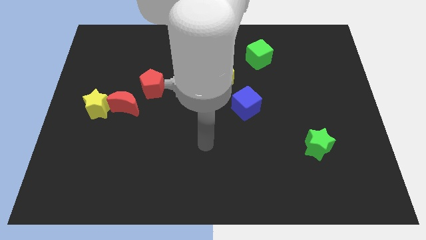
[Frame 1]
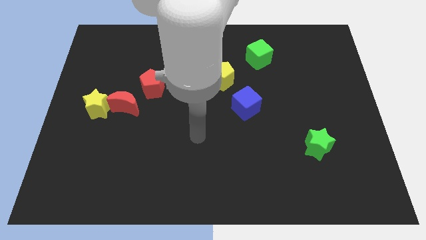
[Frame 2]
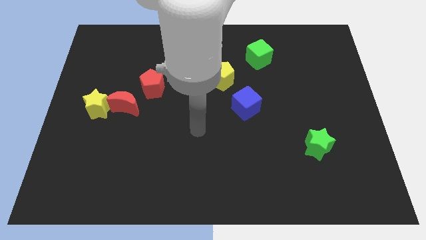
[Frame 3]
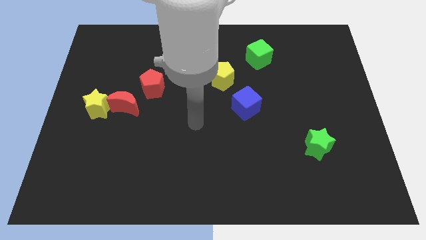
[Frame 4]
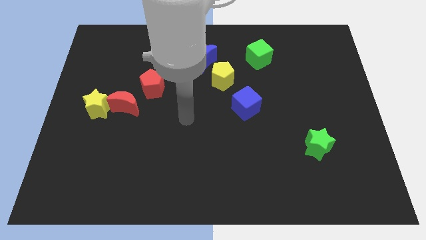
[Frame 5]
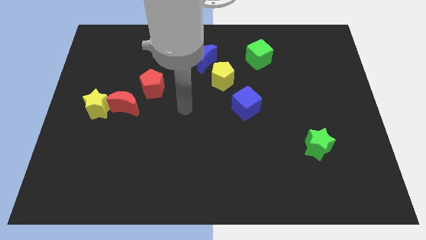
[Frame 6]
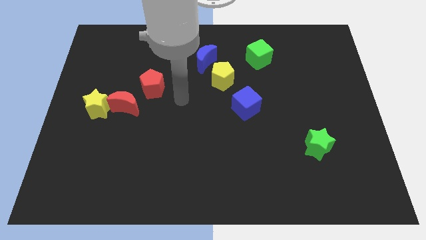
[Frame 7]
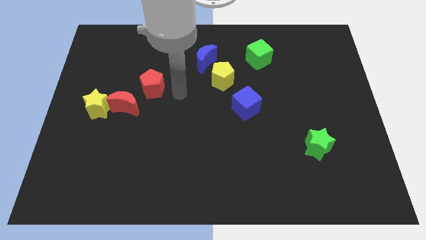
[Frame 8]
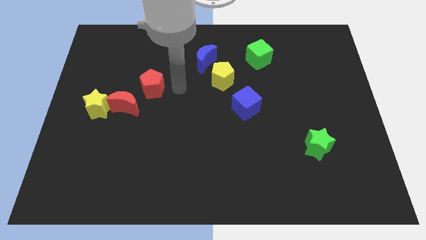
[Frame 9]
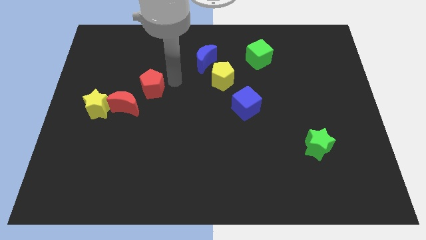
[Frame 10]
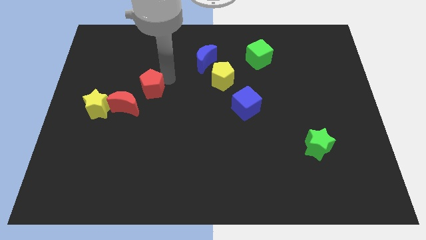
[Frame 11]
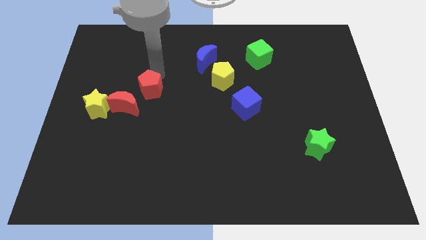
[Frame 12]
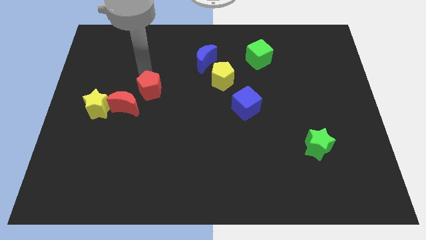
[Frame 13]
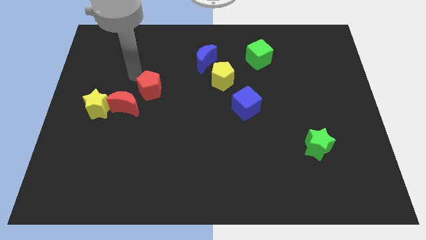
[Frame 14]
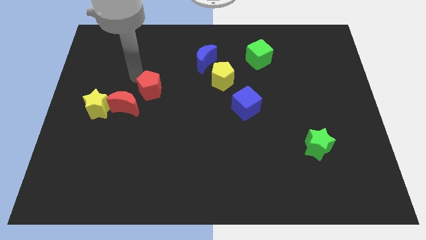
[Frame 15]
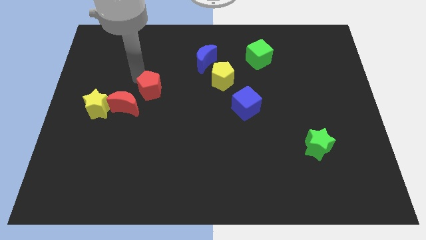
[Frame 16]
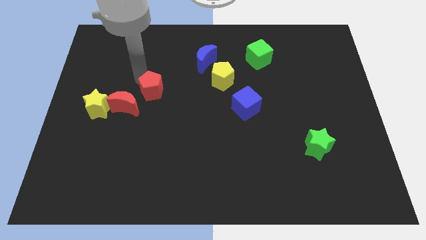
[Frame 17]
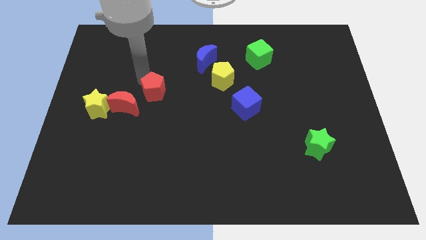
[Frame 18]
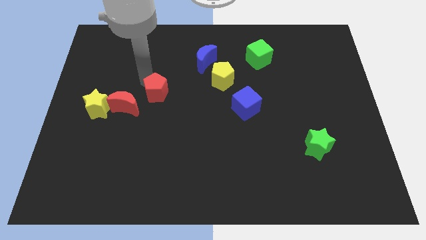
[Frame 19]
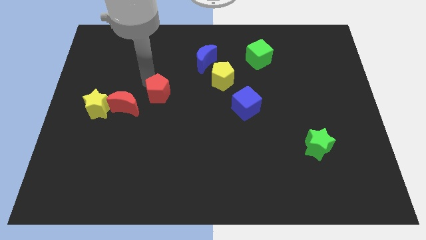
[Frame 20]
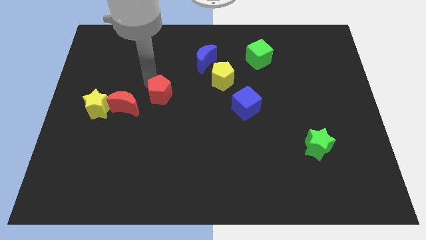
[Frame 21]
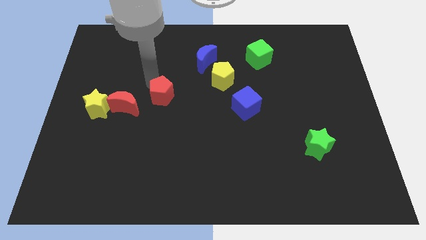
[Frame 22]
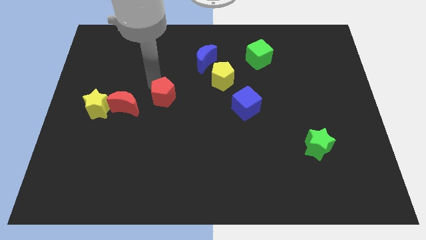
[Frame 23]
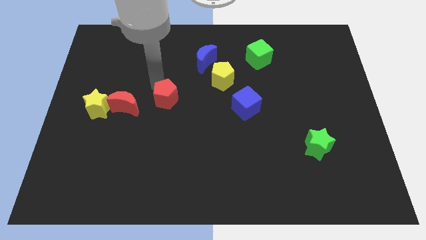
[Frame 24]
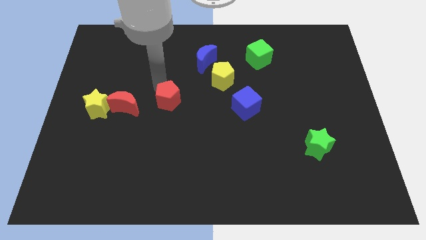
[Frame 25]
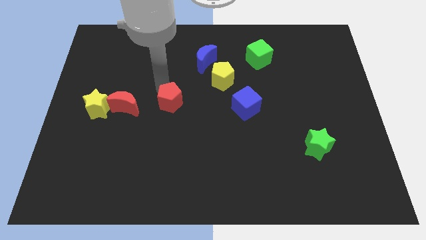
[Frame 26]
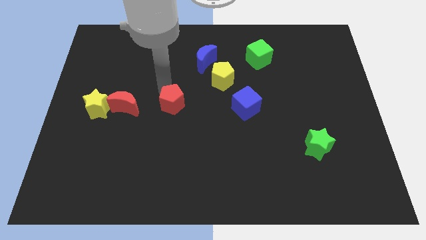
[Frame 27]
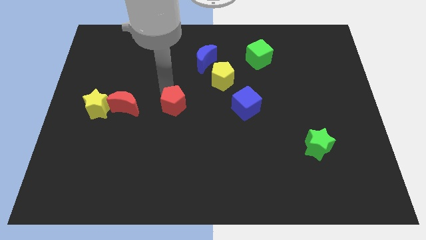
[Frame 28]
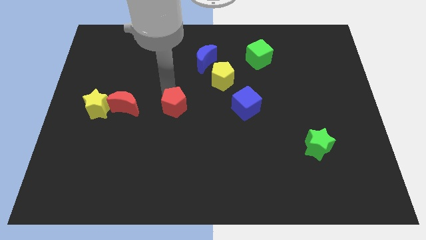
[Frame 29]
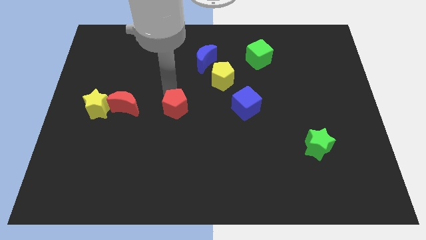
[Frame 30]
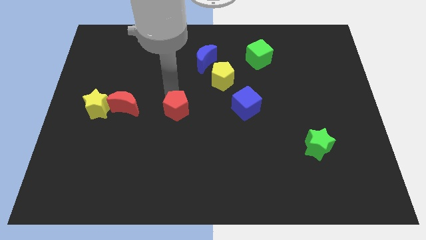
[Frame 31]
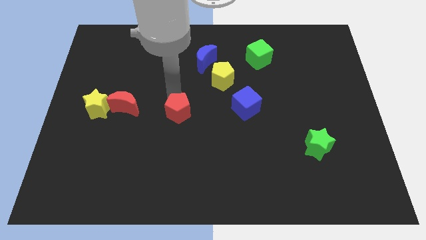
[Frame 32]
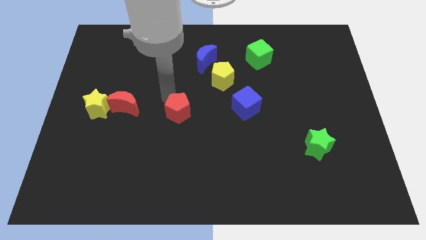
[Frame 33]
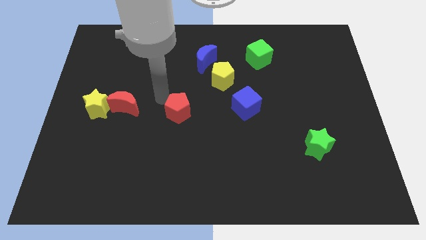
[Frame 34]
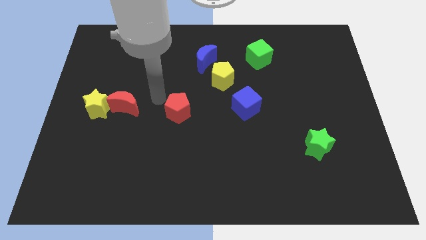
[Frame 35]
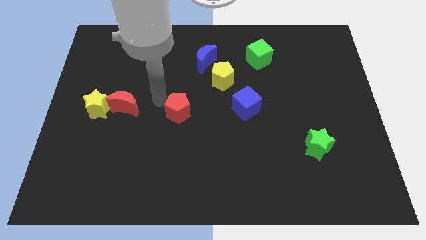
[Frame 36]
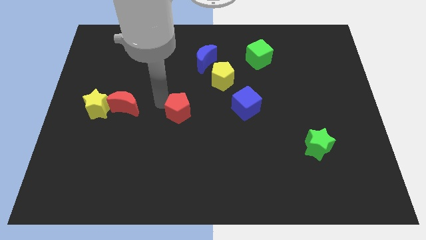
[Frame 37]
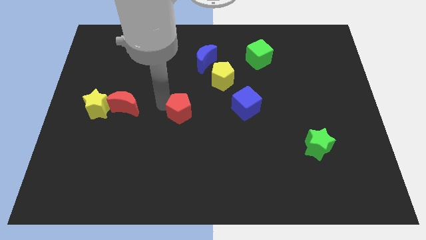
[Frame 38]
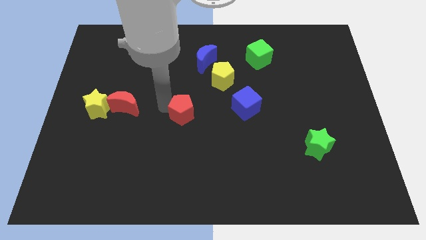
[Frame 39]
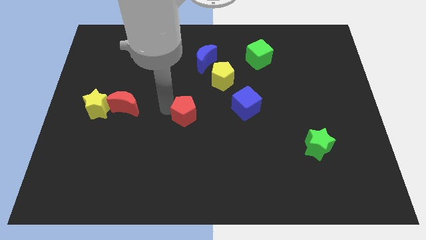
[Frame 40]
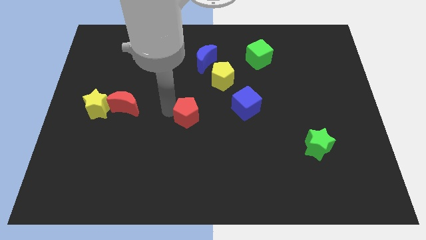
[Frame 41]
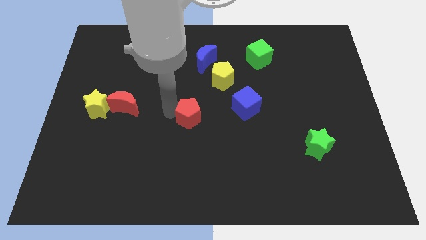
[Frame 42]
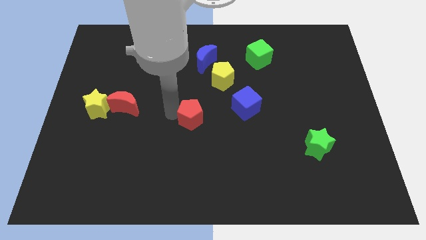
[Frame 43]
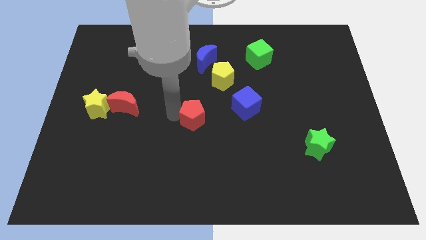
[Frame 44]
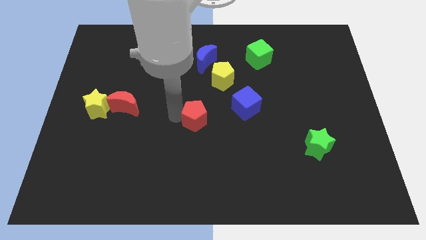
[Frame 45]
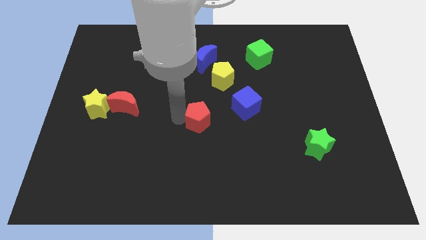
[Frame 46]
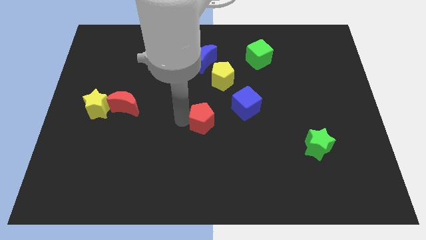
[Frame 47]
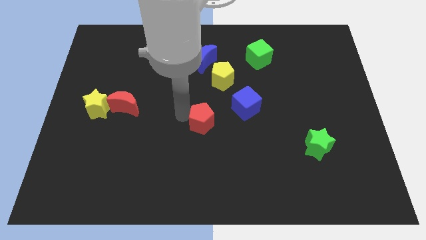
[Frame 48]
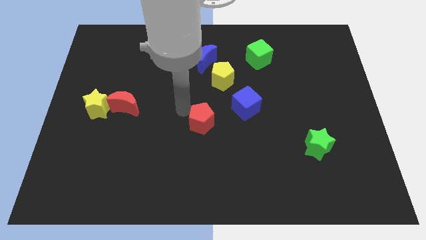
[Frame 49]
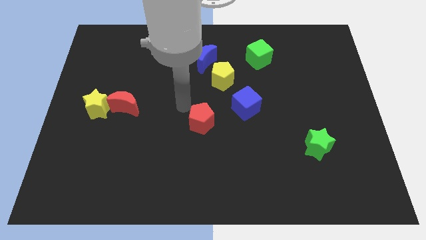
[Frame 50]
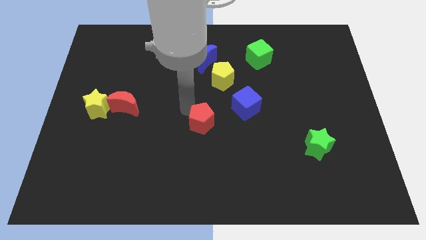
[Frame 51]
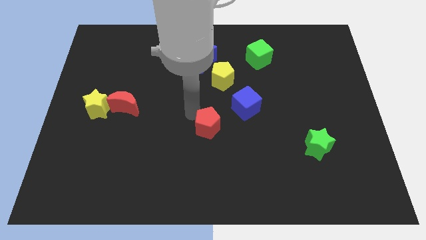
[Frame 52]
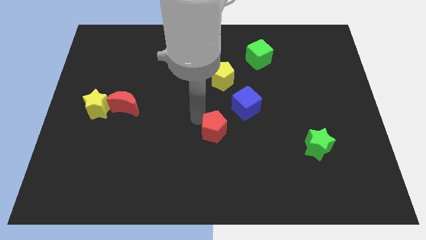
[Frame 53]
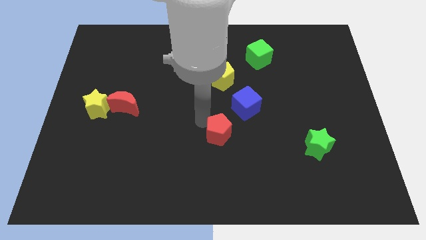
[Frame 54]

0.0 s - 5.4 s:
push the red pentagon diagonally down and right

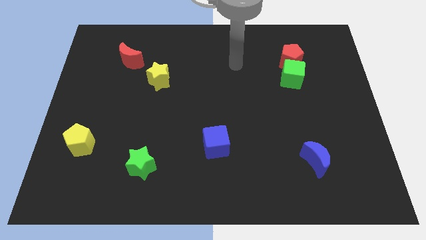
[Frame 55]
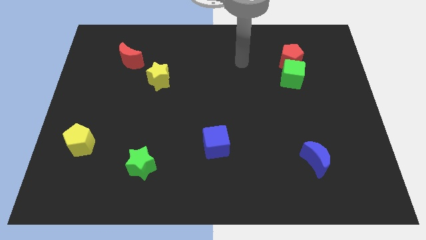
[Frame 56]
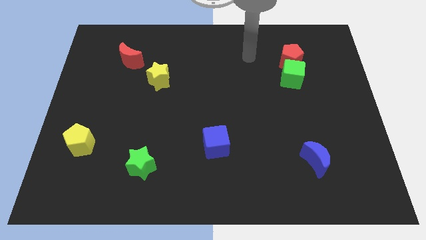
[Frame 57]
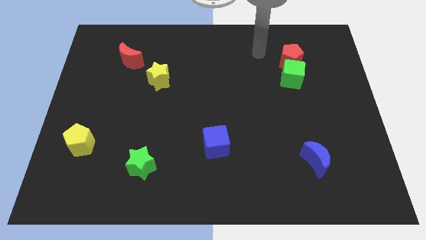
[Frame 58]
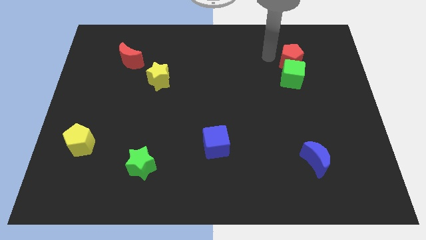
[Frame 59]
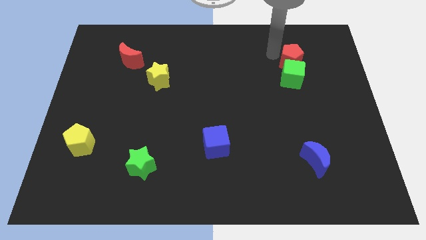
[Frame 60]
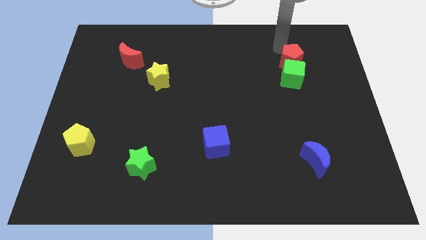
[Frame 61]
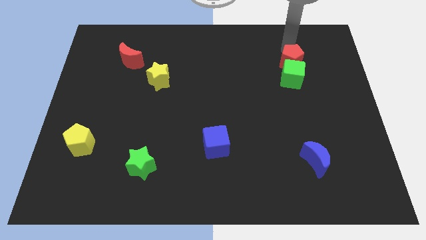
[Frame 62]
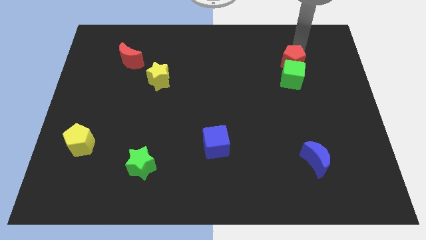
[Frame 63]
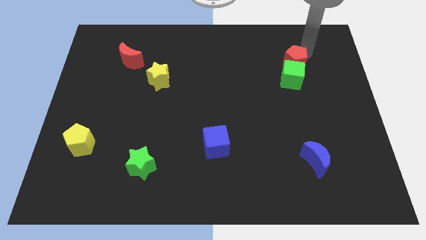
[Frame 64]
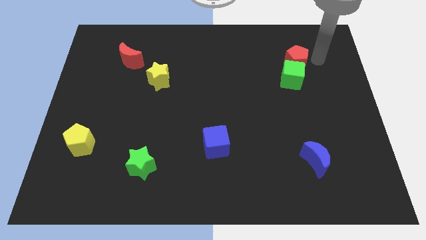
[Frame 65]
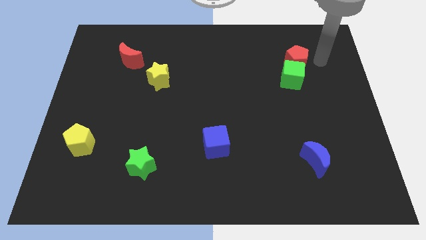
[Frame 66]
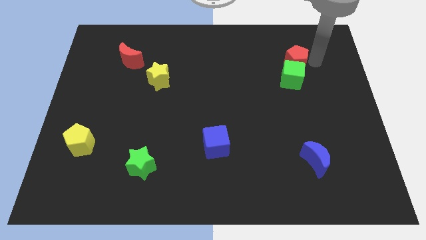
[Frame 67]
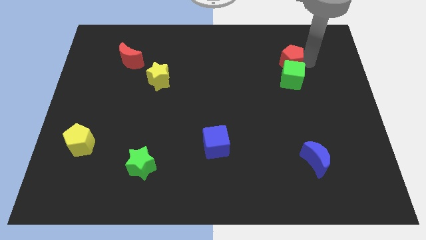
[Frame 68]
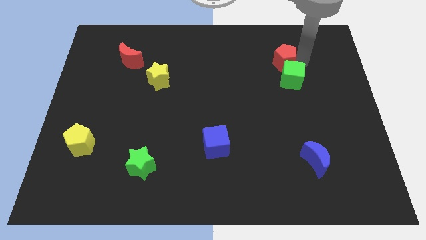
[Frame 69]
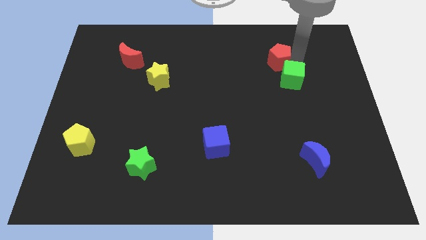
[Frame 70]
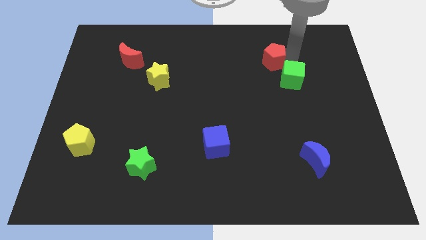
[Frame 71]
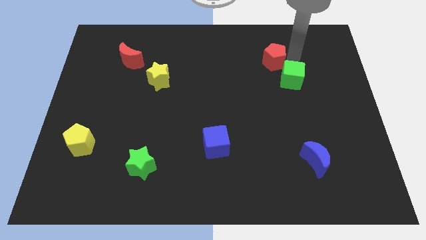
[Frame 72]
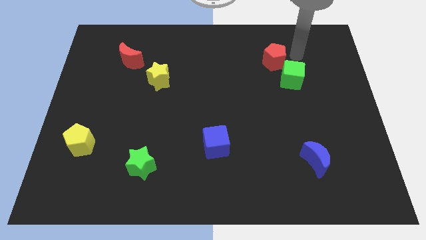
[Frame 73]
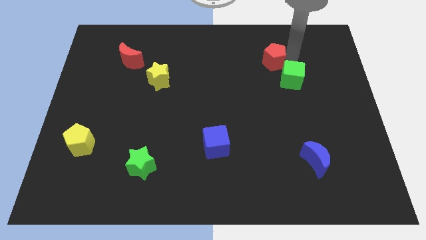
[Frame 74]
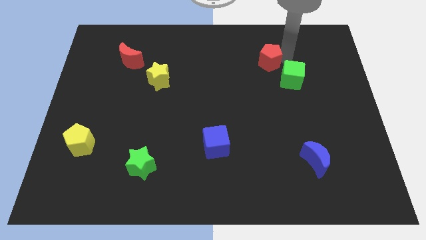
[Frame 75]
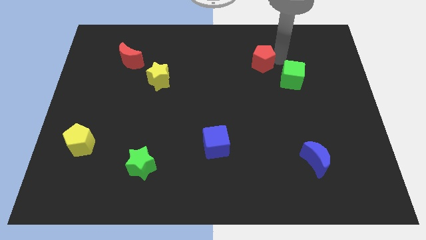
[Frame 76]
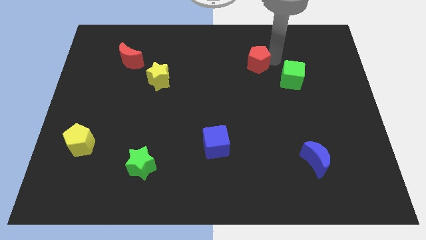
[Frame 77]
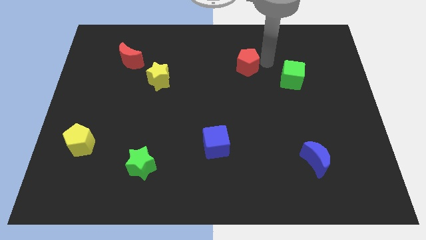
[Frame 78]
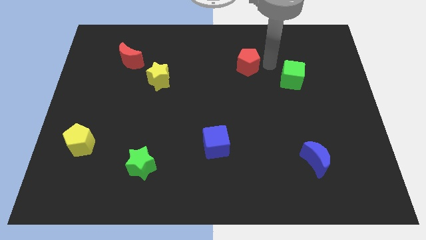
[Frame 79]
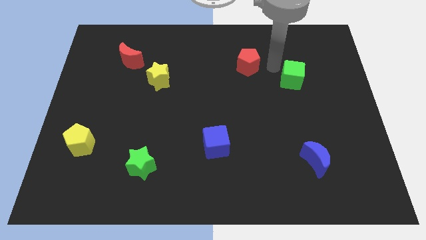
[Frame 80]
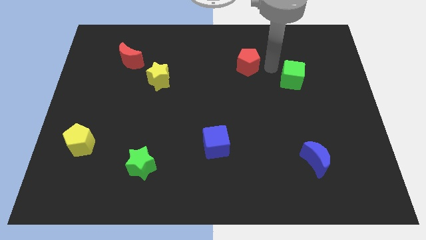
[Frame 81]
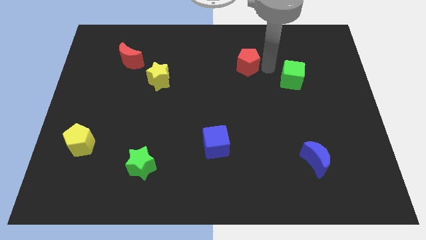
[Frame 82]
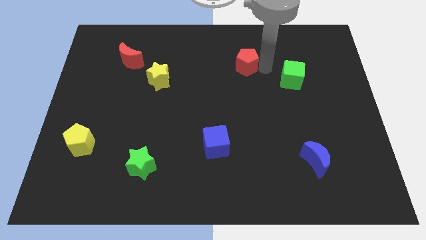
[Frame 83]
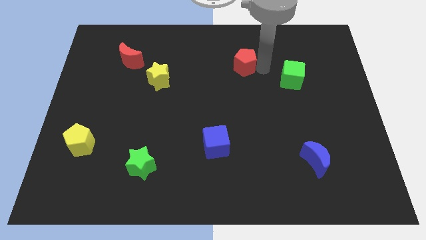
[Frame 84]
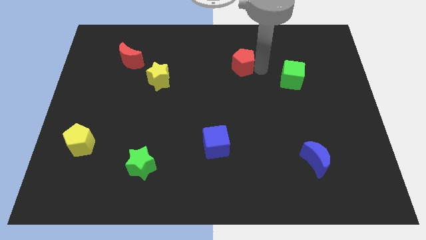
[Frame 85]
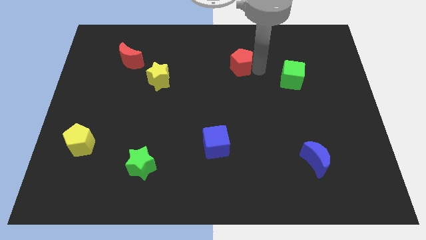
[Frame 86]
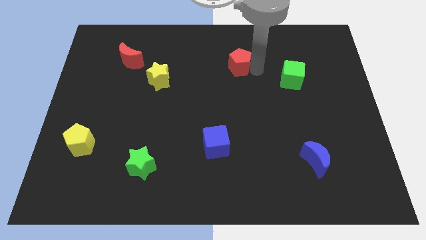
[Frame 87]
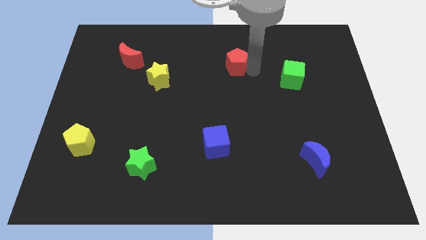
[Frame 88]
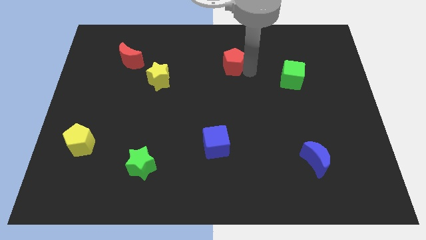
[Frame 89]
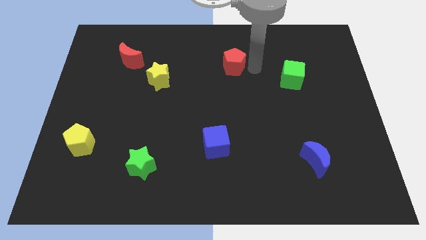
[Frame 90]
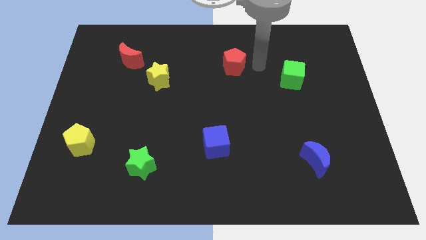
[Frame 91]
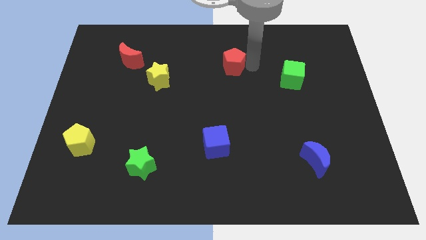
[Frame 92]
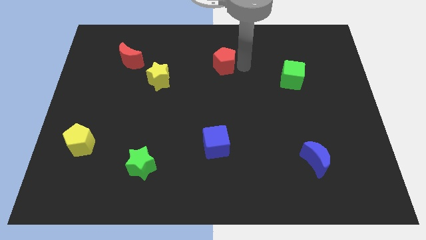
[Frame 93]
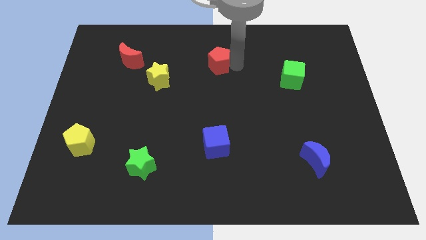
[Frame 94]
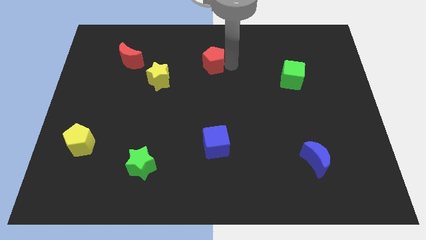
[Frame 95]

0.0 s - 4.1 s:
slide the red pentagon left
